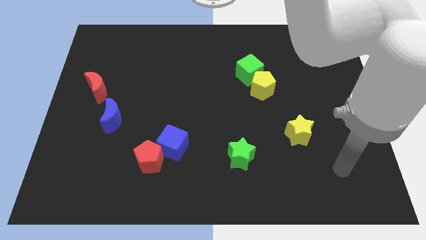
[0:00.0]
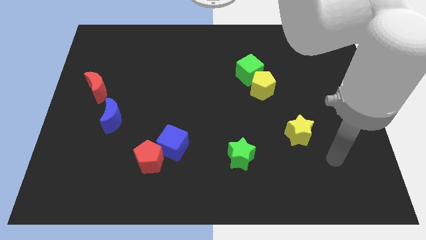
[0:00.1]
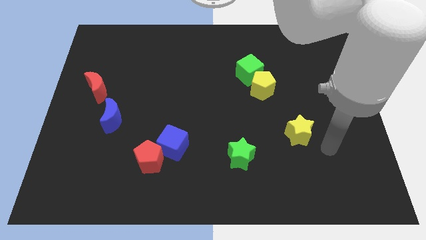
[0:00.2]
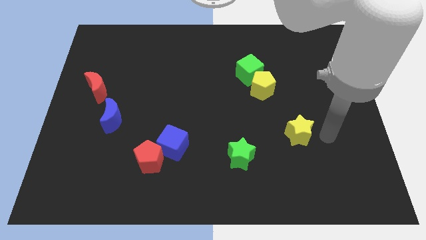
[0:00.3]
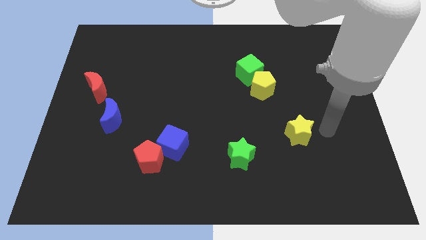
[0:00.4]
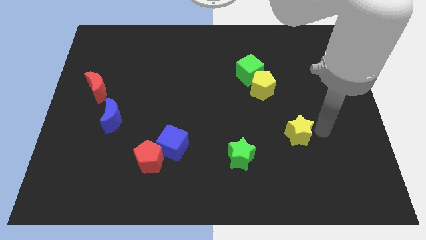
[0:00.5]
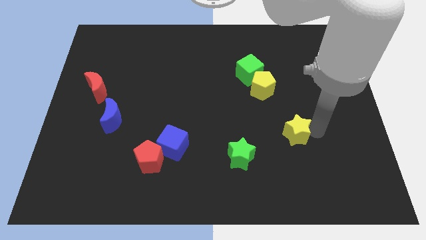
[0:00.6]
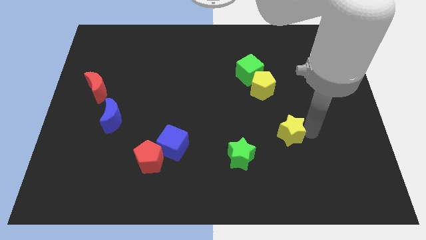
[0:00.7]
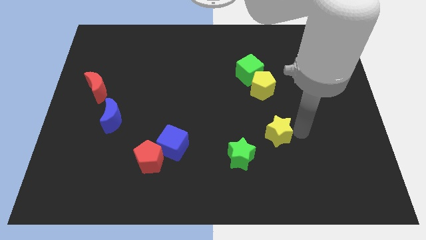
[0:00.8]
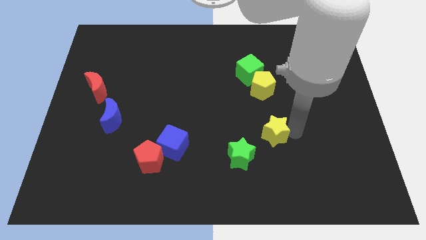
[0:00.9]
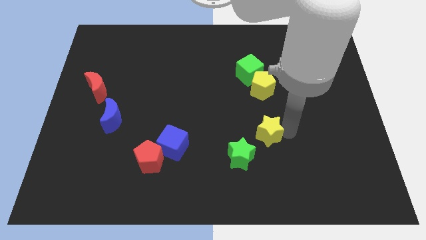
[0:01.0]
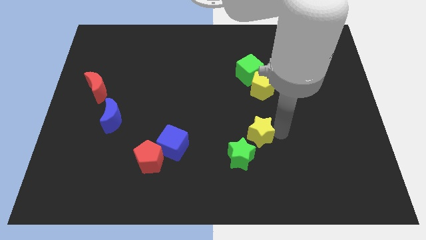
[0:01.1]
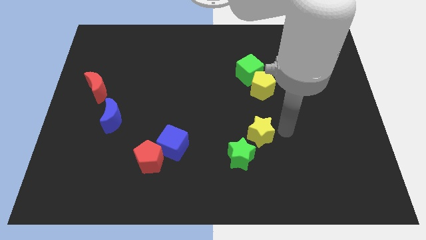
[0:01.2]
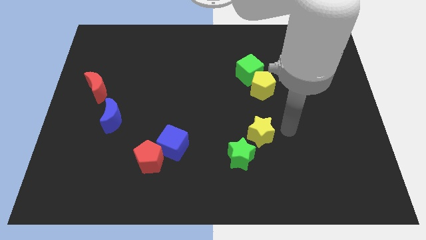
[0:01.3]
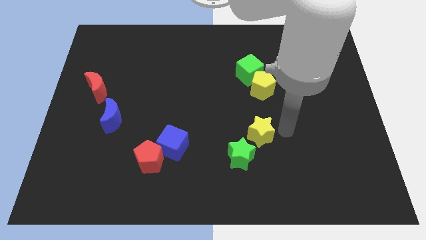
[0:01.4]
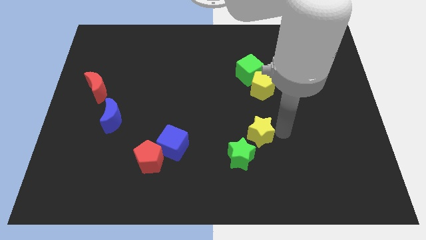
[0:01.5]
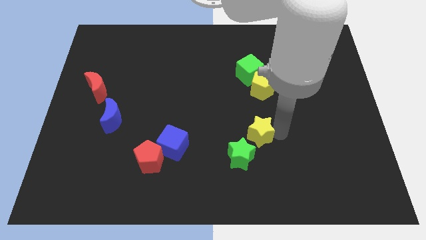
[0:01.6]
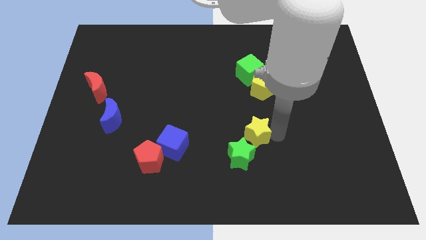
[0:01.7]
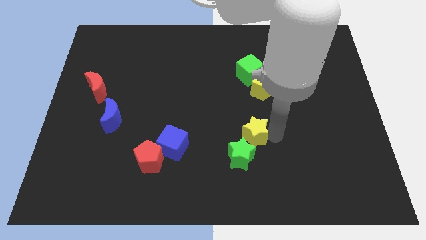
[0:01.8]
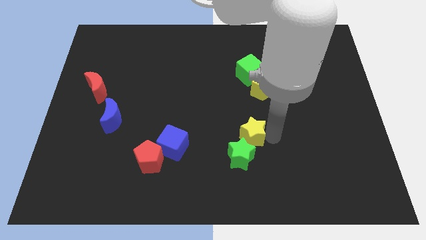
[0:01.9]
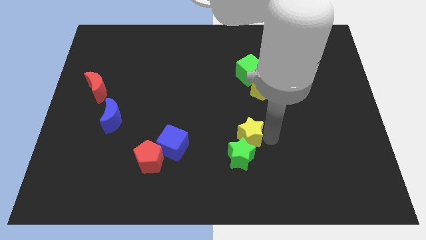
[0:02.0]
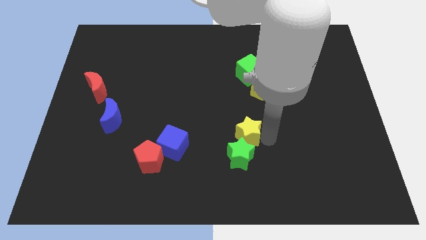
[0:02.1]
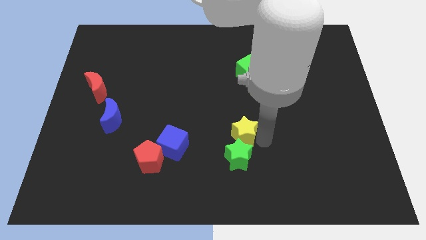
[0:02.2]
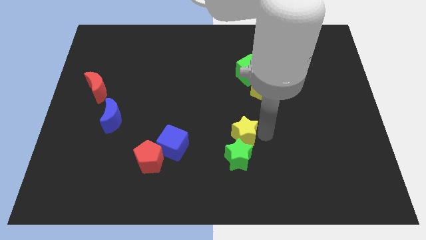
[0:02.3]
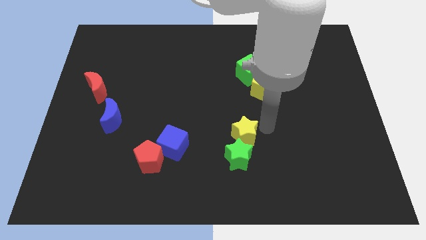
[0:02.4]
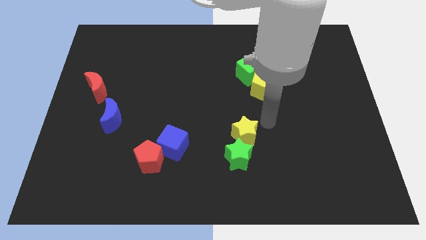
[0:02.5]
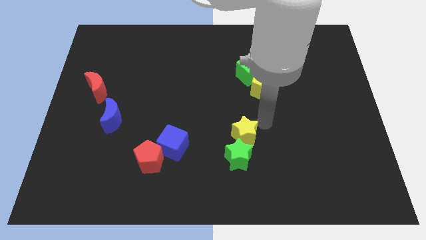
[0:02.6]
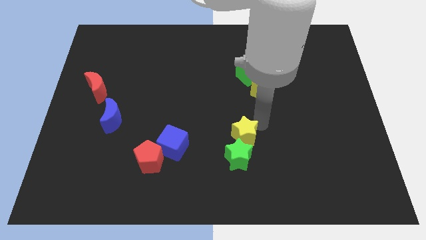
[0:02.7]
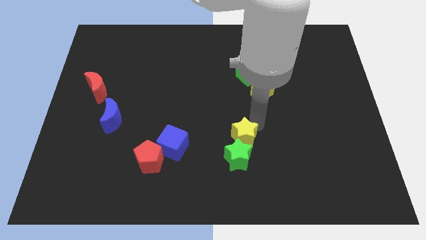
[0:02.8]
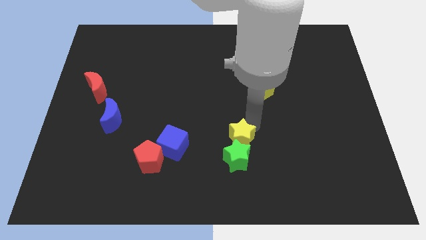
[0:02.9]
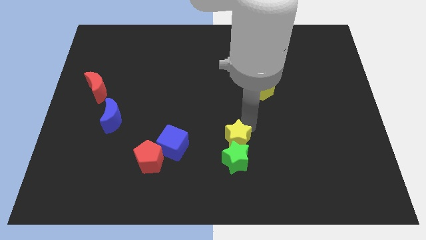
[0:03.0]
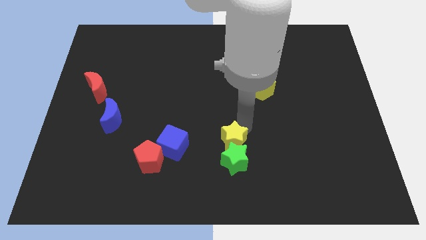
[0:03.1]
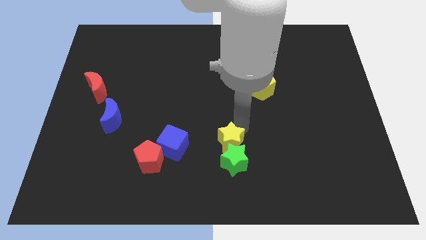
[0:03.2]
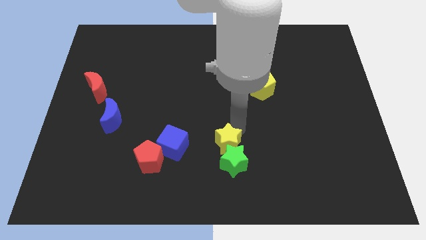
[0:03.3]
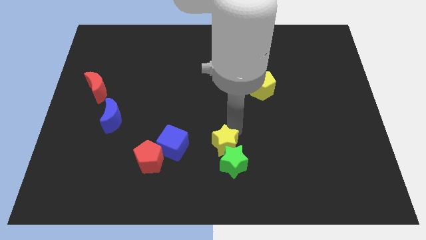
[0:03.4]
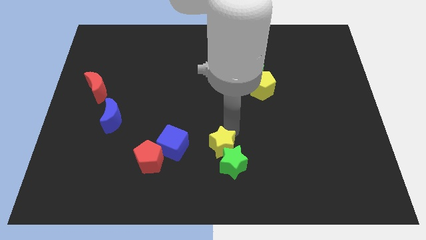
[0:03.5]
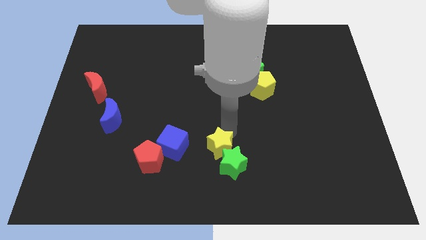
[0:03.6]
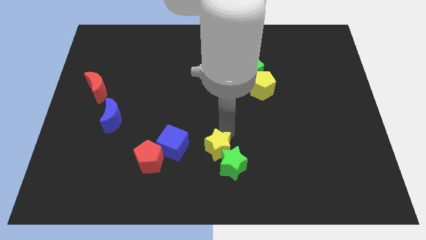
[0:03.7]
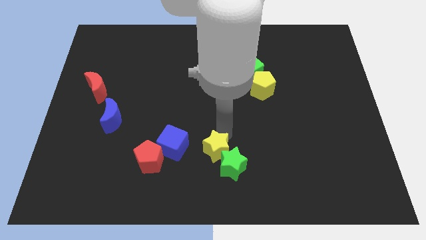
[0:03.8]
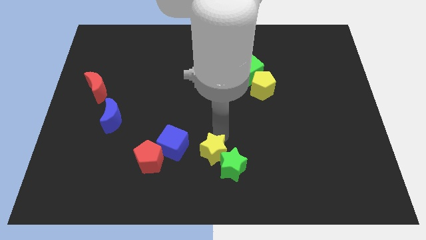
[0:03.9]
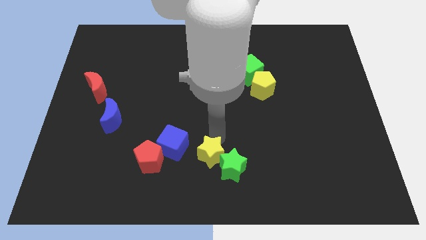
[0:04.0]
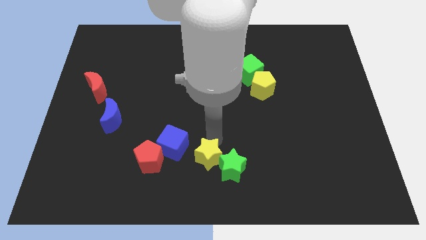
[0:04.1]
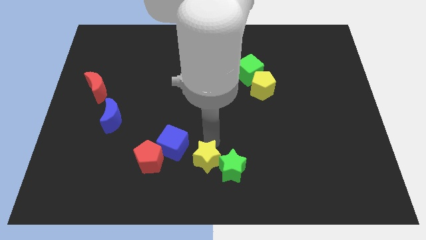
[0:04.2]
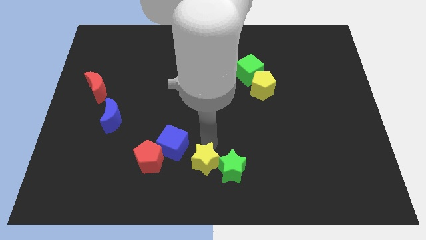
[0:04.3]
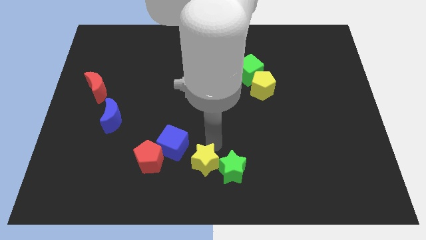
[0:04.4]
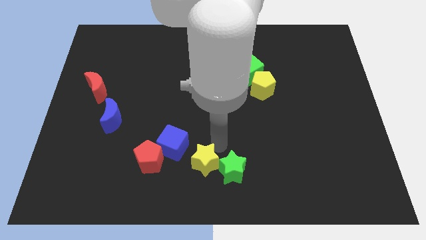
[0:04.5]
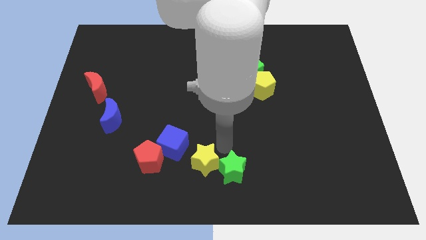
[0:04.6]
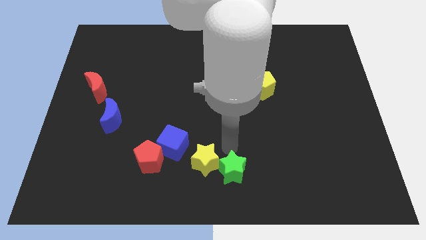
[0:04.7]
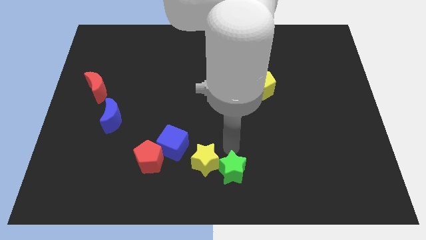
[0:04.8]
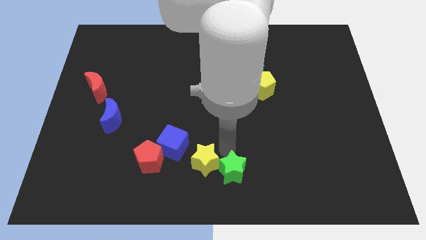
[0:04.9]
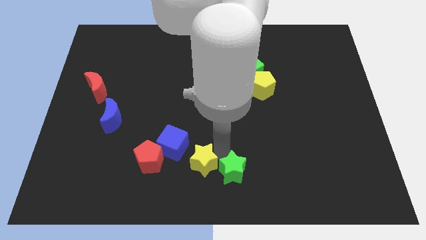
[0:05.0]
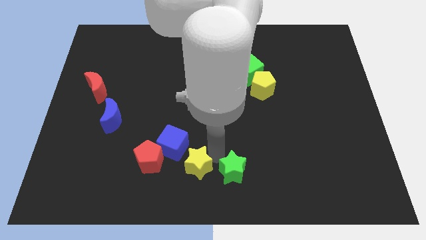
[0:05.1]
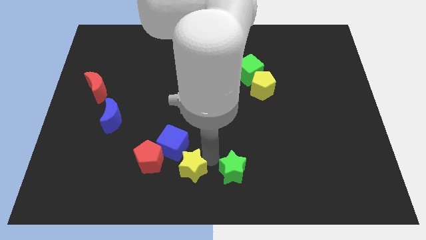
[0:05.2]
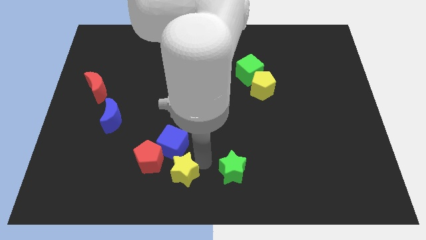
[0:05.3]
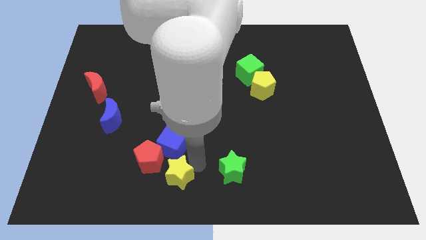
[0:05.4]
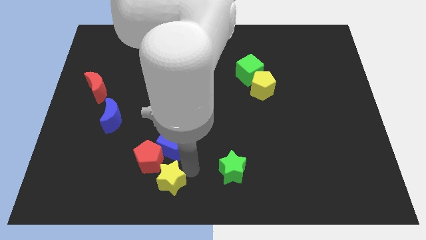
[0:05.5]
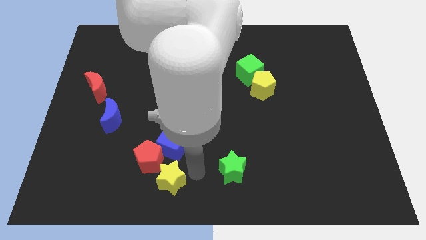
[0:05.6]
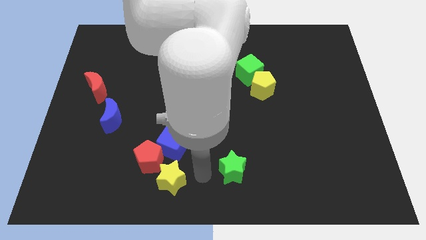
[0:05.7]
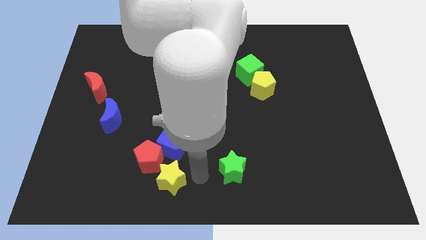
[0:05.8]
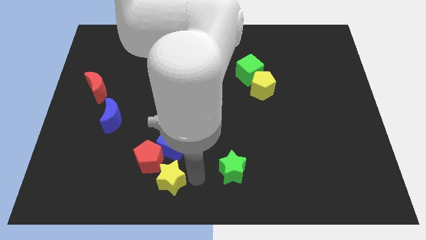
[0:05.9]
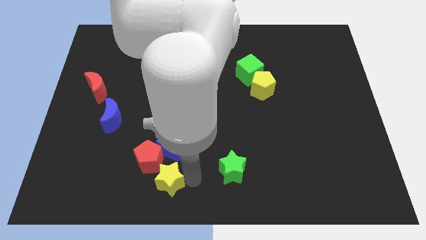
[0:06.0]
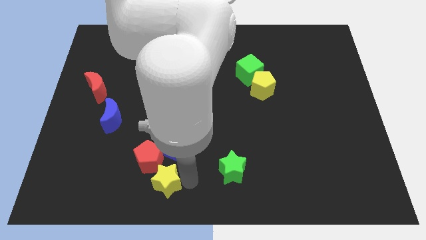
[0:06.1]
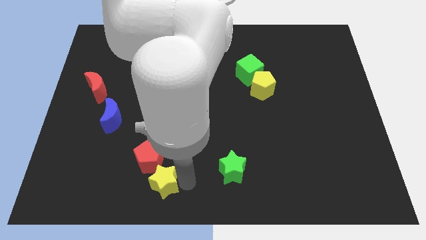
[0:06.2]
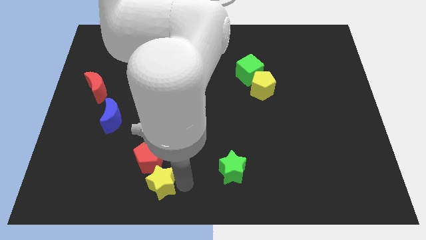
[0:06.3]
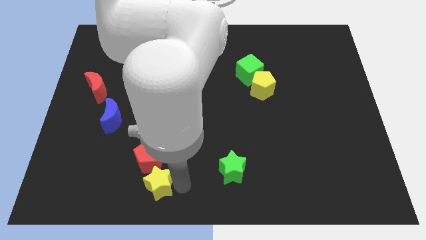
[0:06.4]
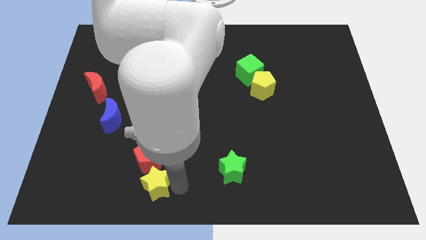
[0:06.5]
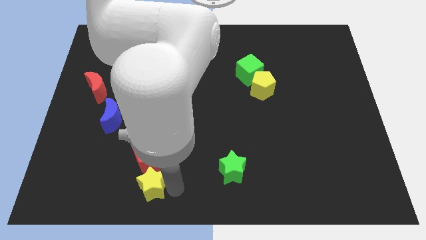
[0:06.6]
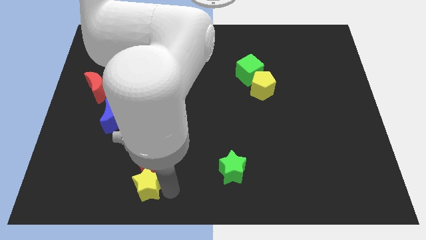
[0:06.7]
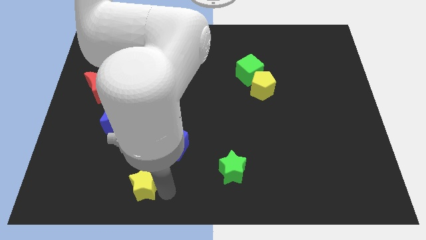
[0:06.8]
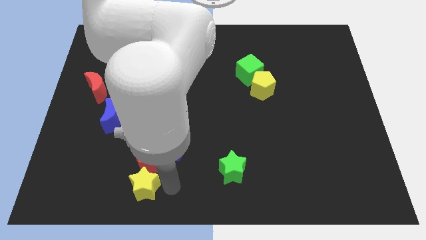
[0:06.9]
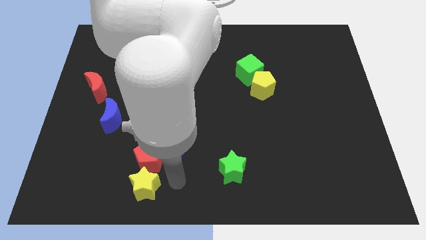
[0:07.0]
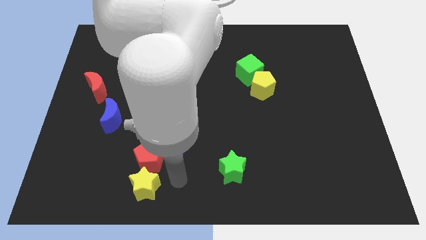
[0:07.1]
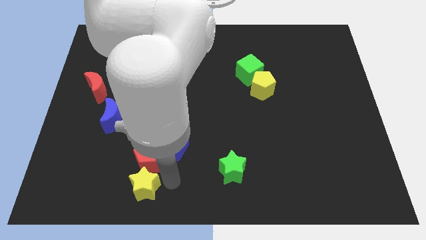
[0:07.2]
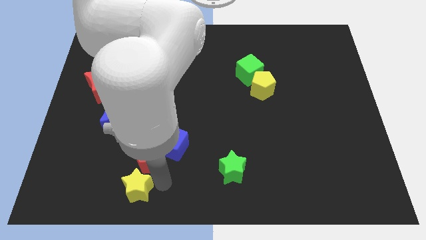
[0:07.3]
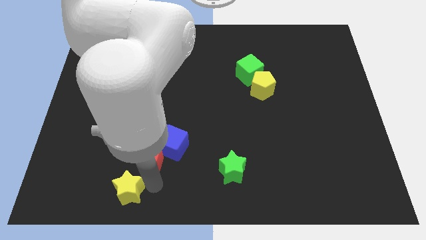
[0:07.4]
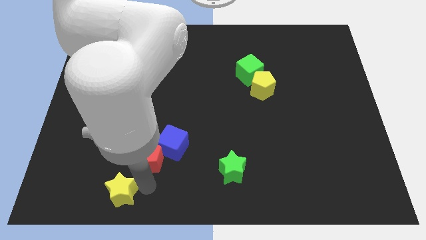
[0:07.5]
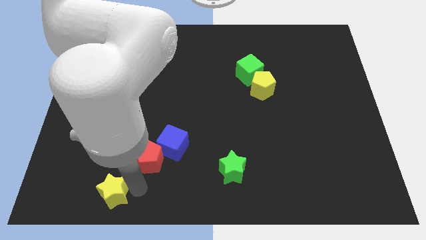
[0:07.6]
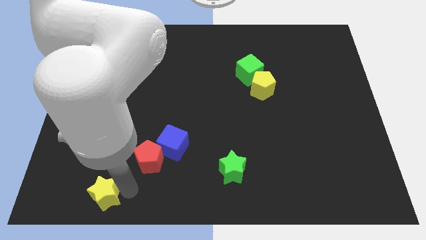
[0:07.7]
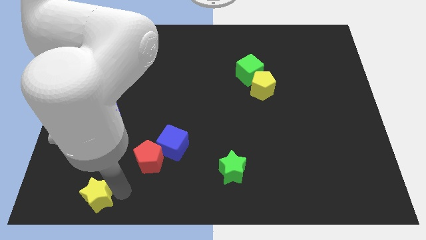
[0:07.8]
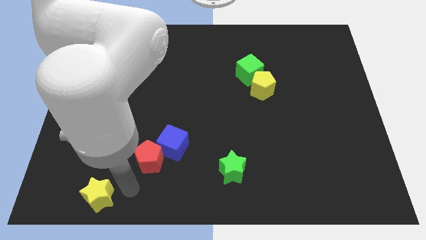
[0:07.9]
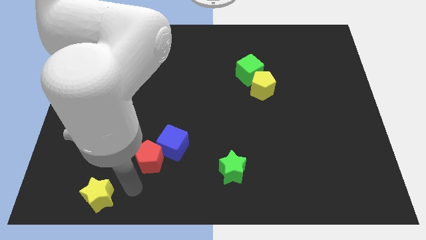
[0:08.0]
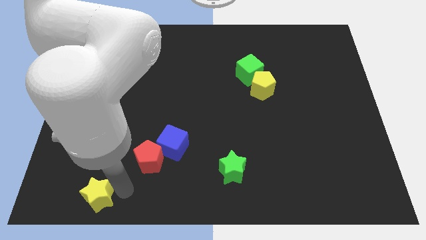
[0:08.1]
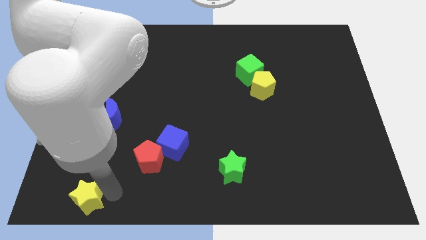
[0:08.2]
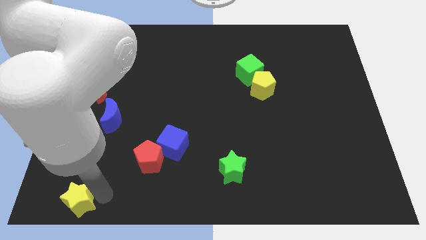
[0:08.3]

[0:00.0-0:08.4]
slide the yellow star to the bottom left corner
